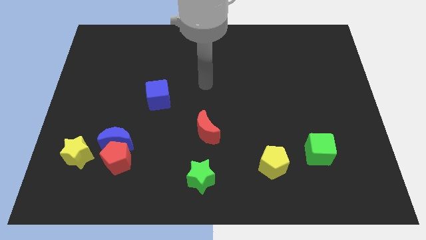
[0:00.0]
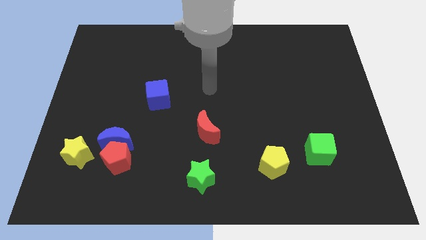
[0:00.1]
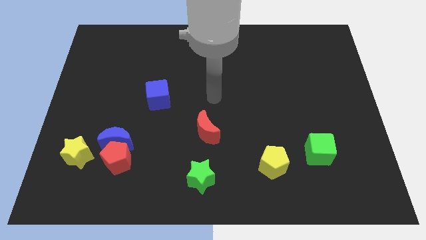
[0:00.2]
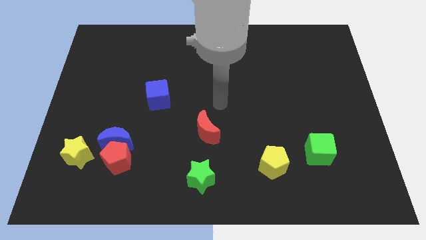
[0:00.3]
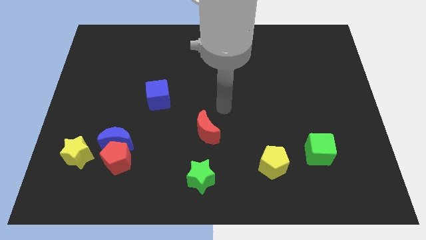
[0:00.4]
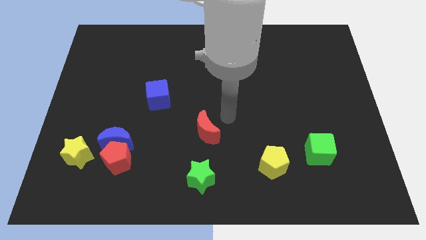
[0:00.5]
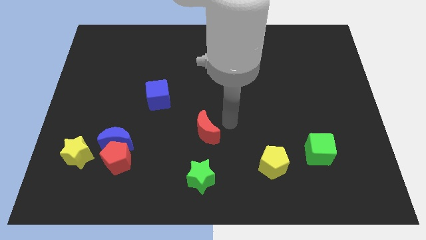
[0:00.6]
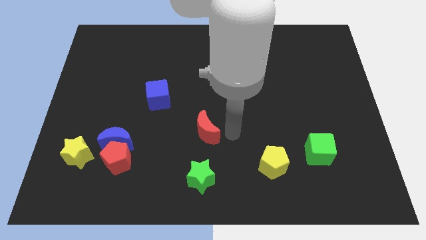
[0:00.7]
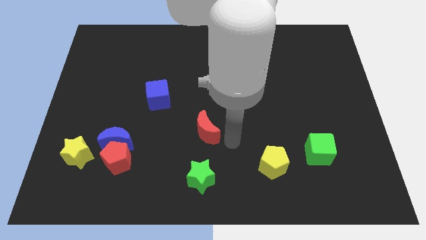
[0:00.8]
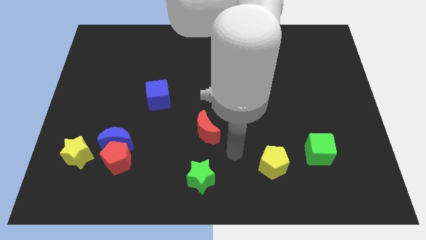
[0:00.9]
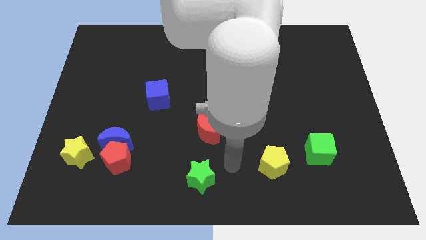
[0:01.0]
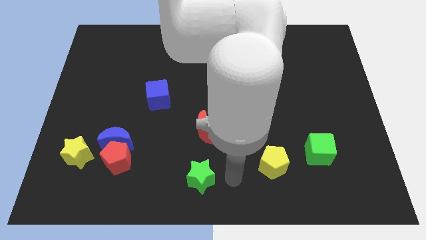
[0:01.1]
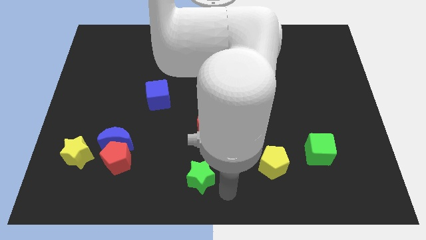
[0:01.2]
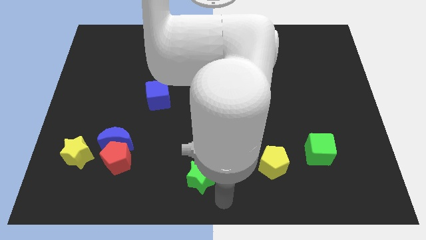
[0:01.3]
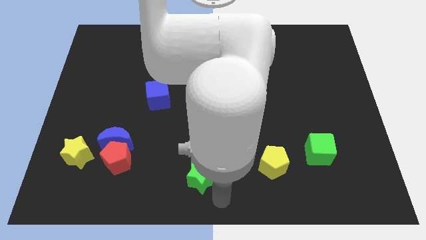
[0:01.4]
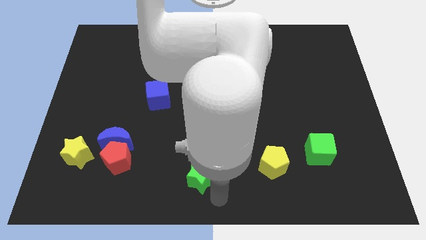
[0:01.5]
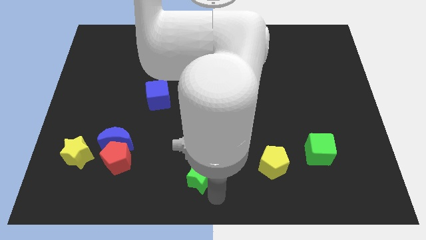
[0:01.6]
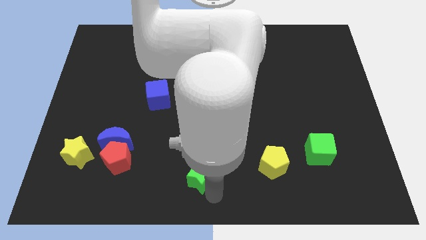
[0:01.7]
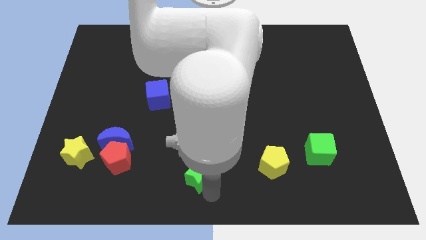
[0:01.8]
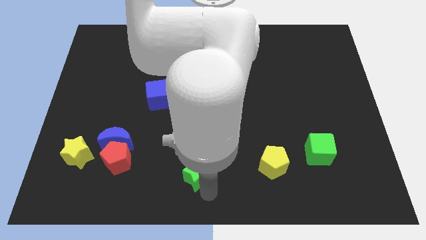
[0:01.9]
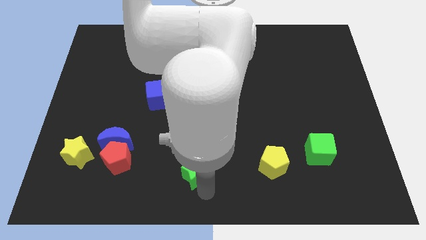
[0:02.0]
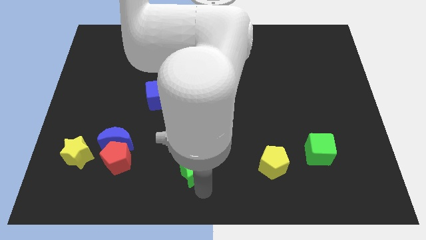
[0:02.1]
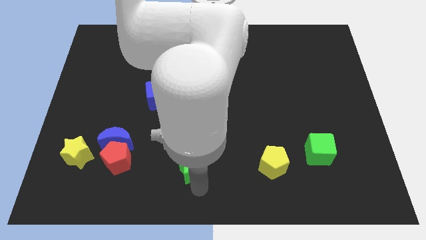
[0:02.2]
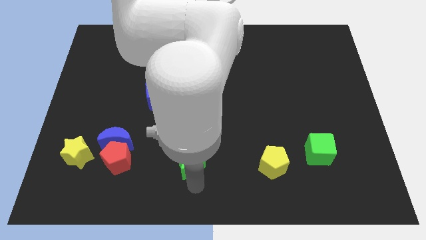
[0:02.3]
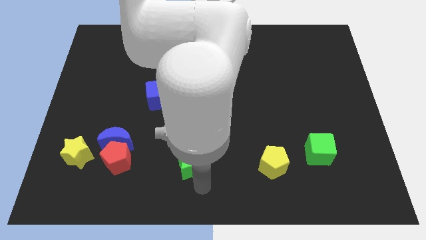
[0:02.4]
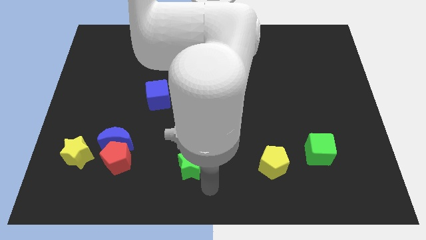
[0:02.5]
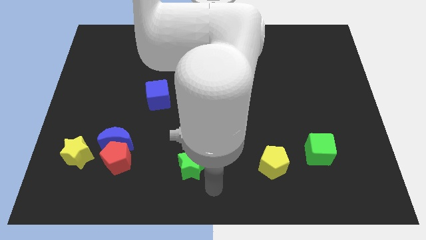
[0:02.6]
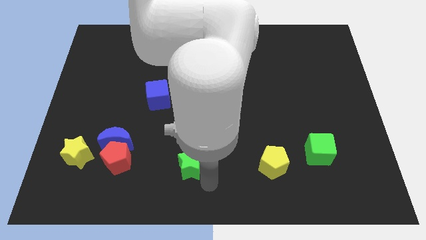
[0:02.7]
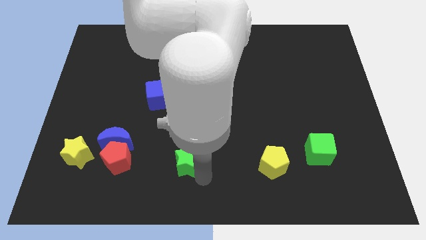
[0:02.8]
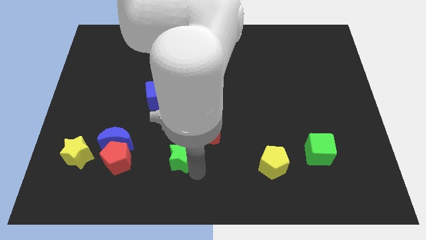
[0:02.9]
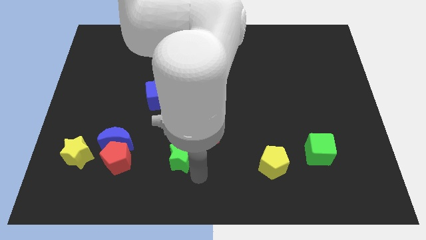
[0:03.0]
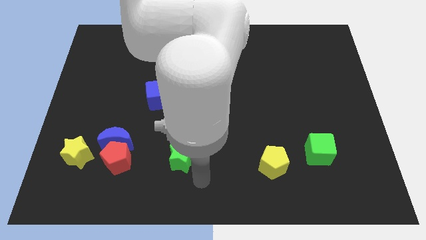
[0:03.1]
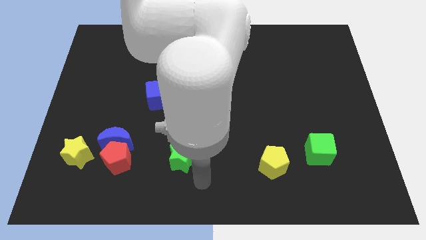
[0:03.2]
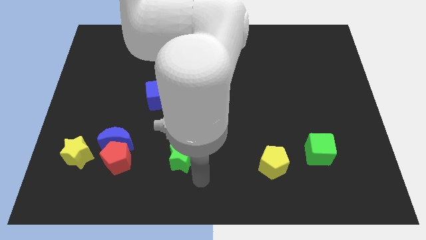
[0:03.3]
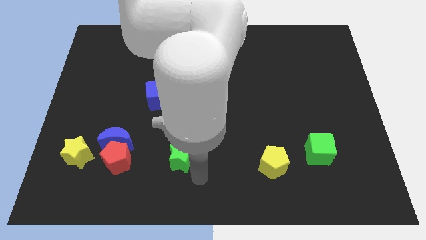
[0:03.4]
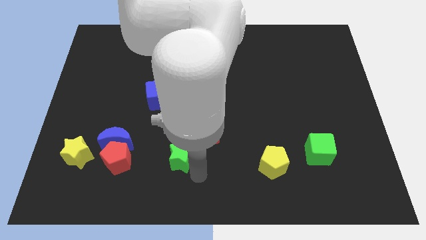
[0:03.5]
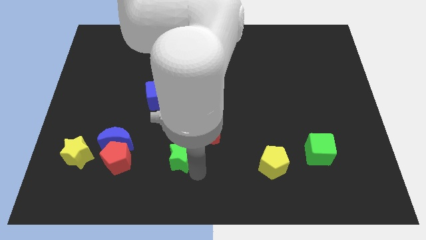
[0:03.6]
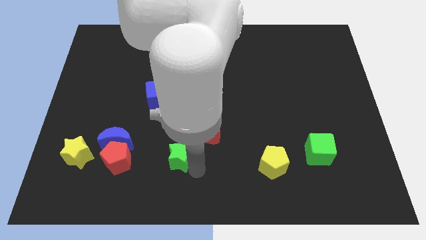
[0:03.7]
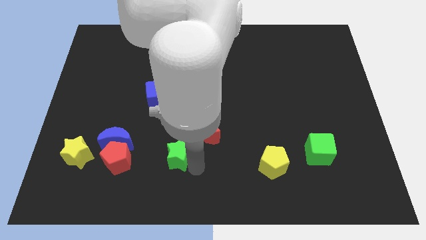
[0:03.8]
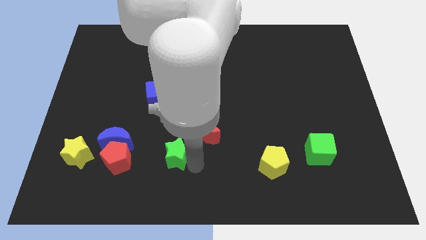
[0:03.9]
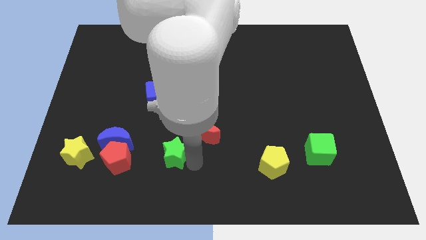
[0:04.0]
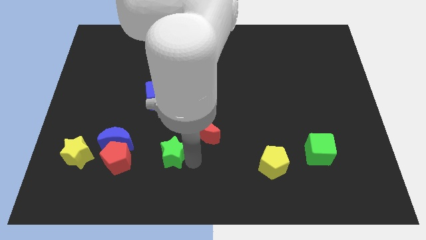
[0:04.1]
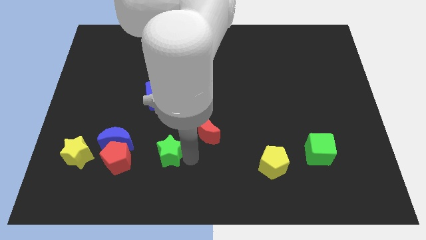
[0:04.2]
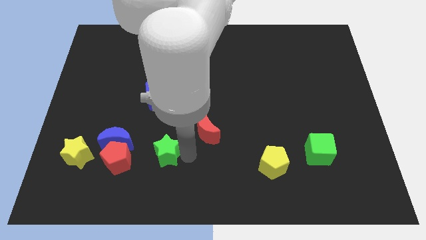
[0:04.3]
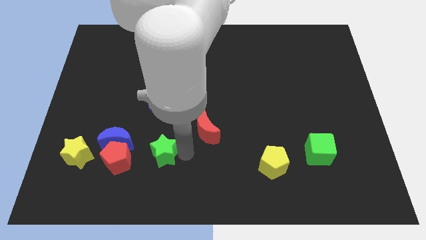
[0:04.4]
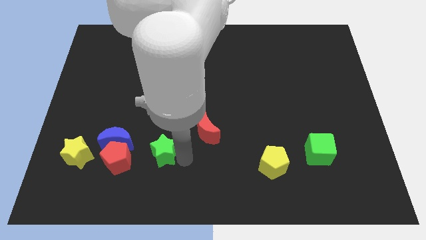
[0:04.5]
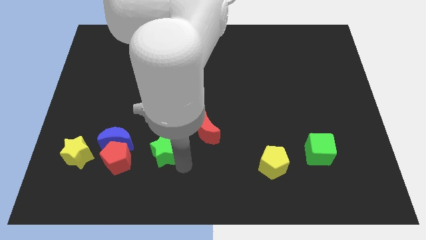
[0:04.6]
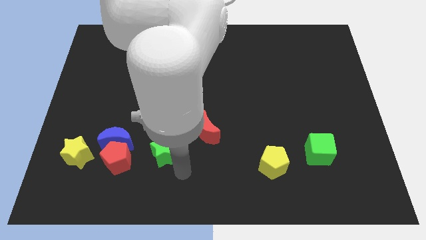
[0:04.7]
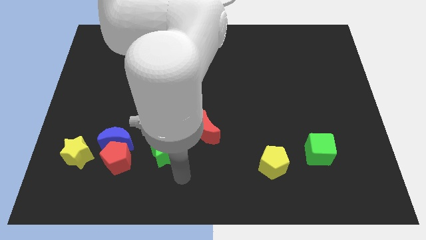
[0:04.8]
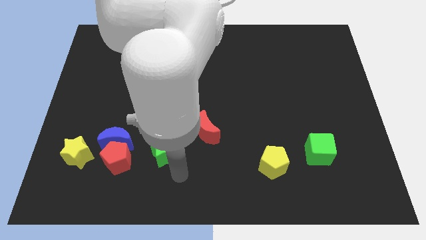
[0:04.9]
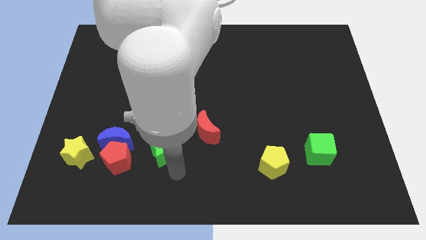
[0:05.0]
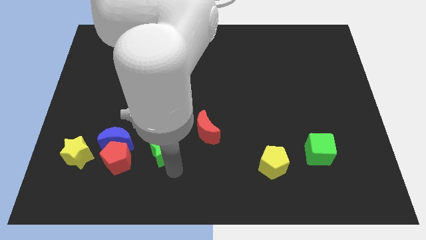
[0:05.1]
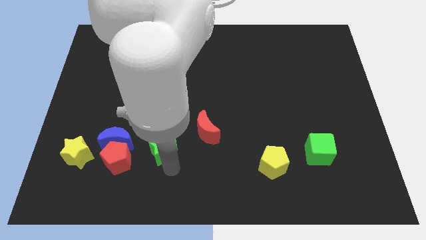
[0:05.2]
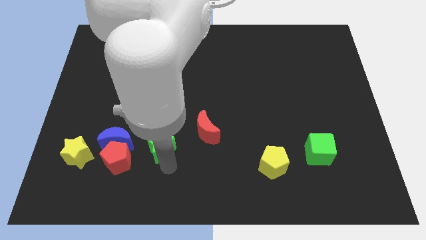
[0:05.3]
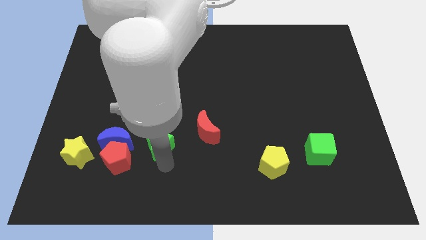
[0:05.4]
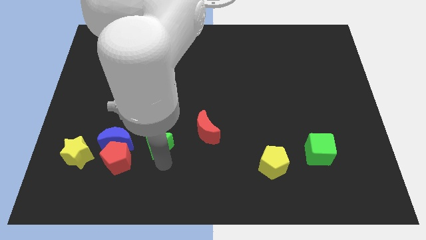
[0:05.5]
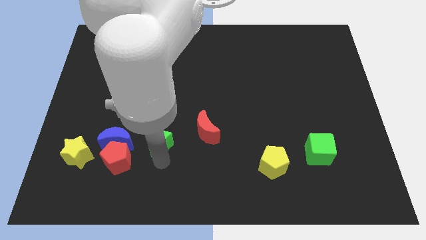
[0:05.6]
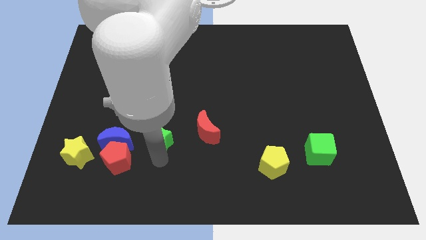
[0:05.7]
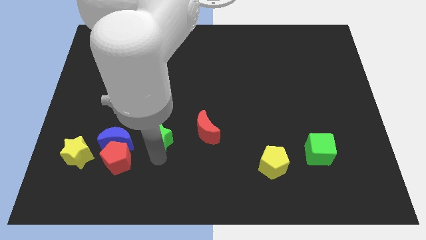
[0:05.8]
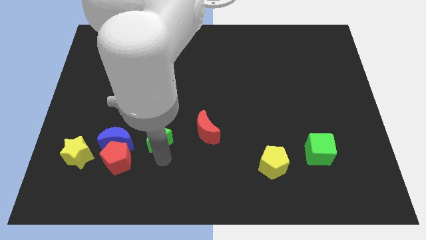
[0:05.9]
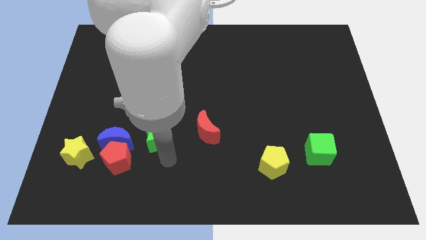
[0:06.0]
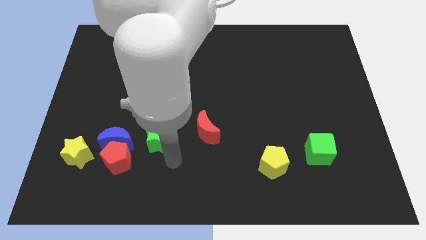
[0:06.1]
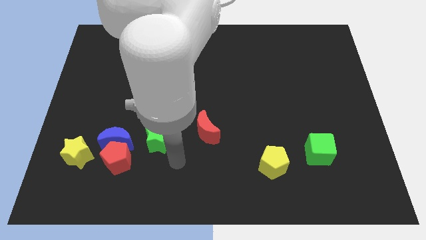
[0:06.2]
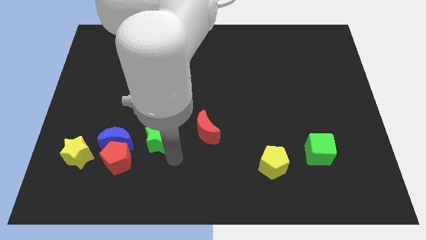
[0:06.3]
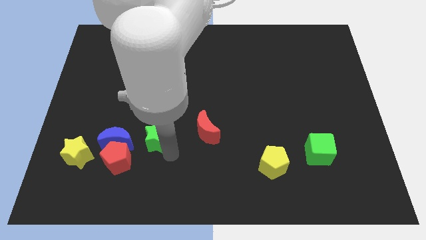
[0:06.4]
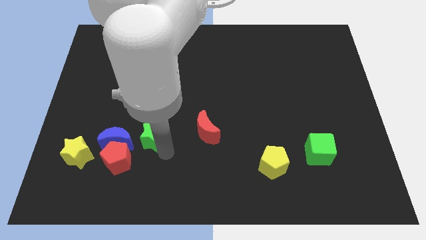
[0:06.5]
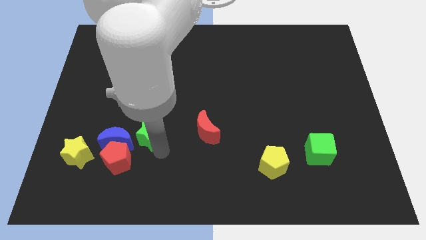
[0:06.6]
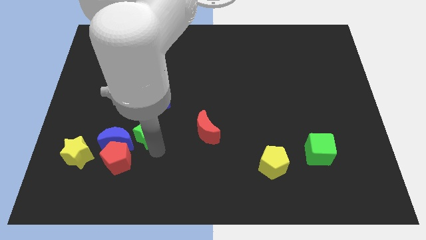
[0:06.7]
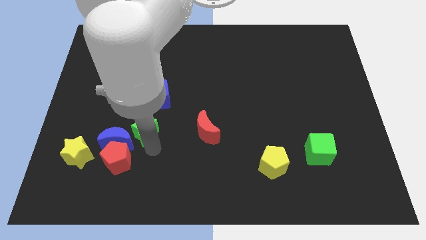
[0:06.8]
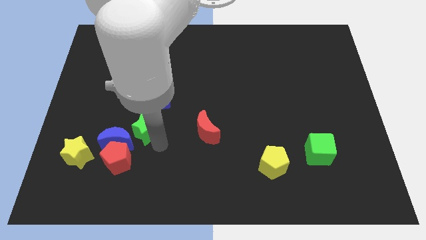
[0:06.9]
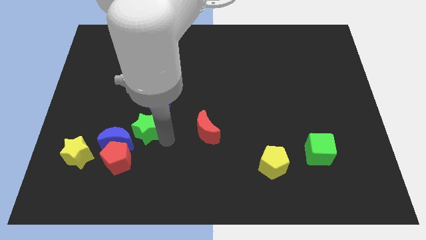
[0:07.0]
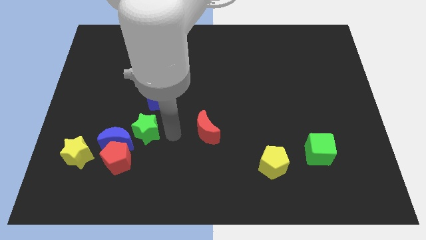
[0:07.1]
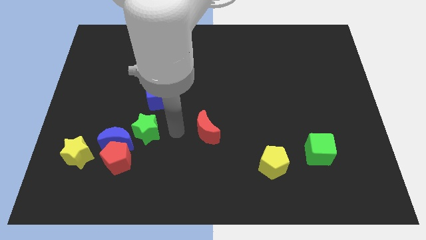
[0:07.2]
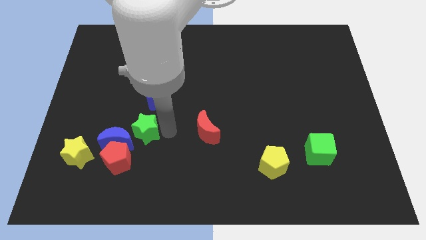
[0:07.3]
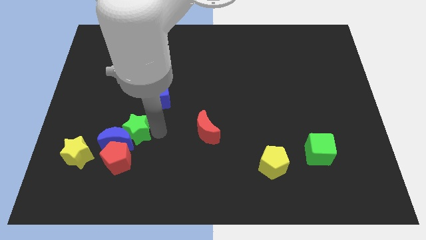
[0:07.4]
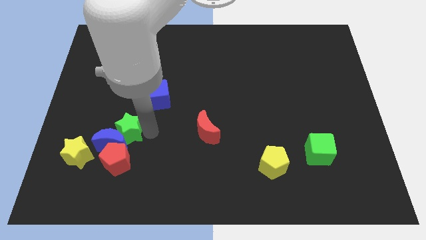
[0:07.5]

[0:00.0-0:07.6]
move the green star to the top right of the yellow star
